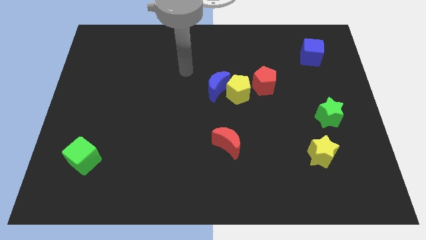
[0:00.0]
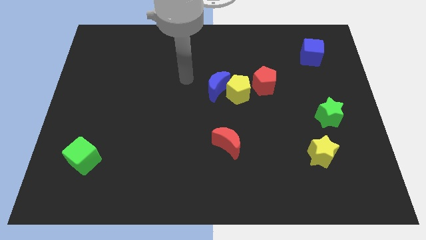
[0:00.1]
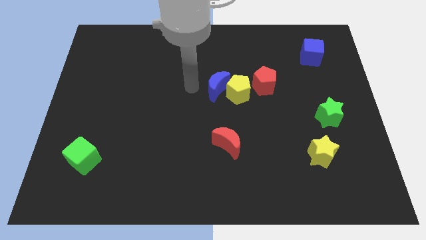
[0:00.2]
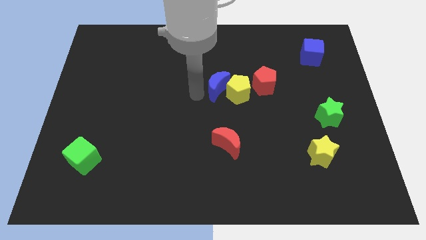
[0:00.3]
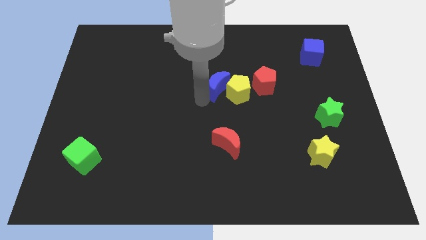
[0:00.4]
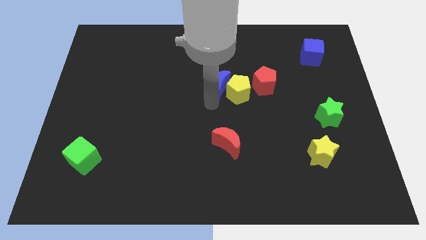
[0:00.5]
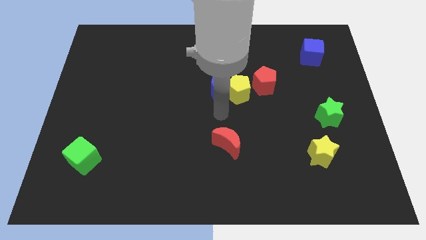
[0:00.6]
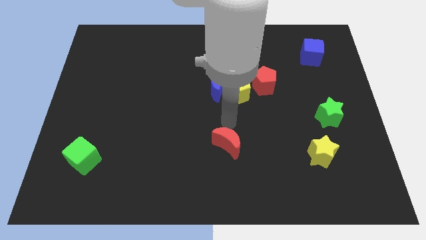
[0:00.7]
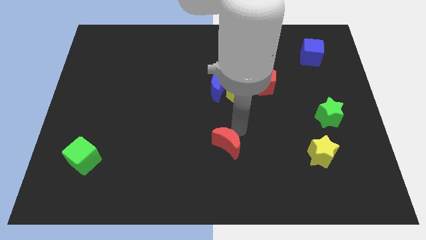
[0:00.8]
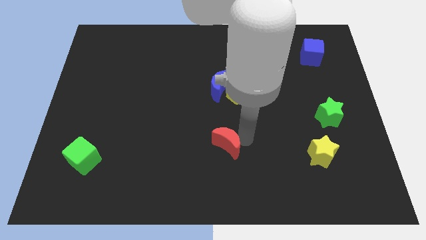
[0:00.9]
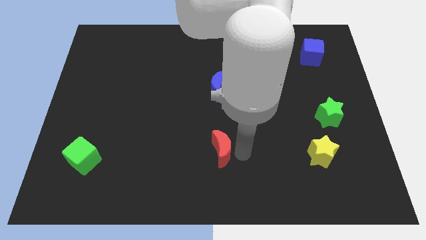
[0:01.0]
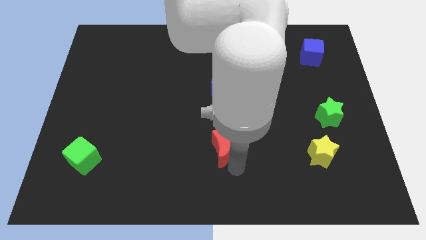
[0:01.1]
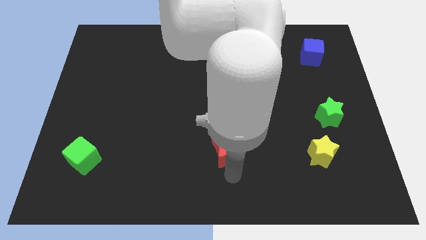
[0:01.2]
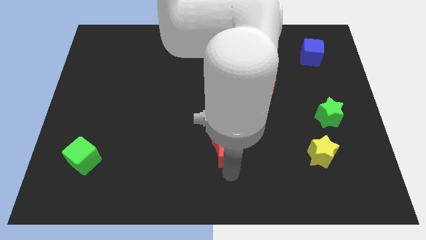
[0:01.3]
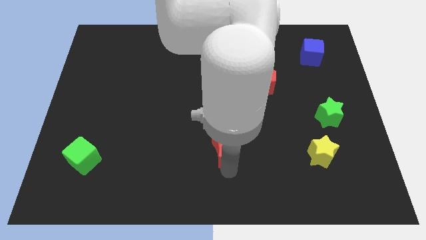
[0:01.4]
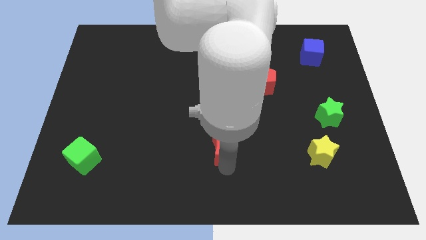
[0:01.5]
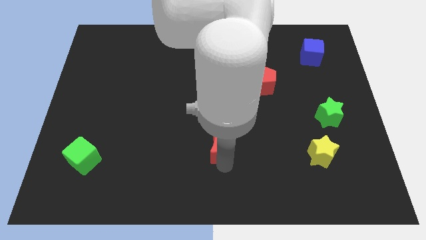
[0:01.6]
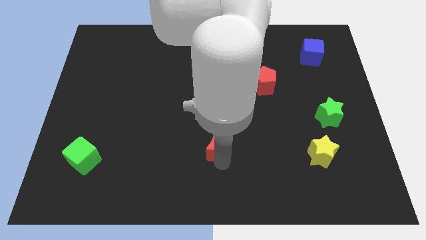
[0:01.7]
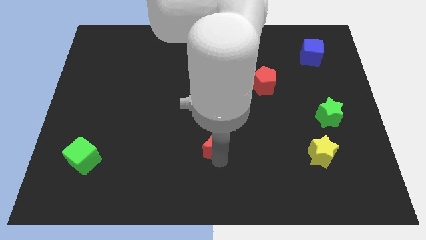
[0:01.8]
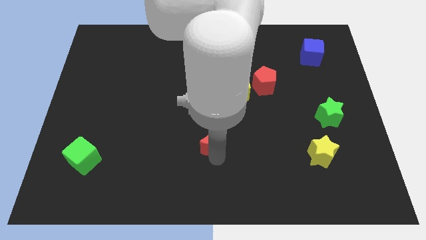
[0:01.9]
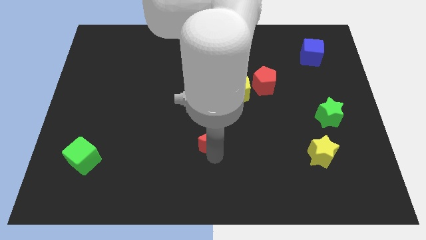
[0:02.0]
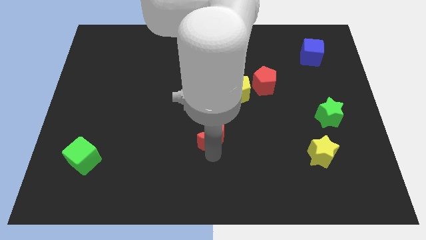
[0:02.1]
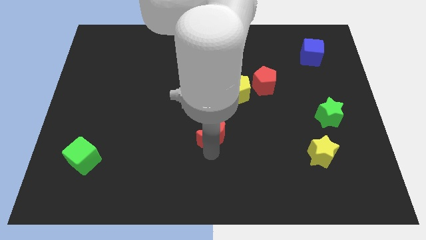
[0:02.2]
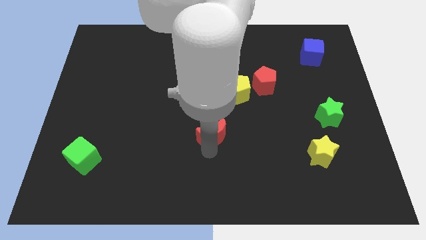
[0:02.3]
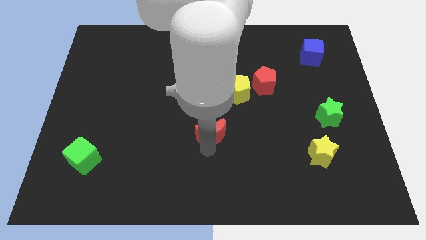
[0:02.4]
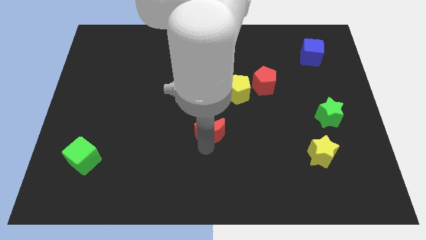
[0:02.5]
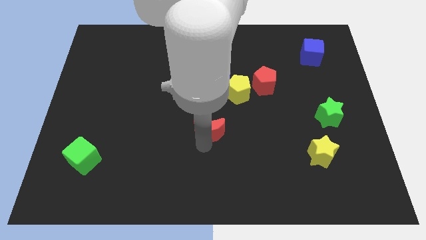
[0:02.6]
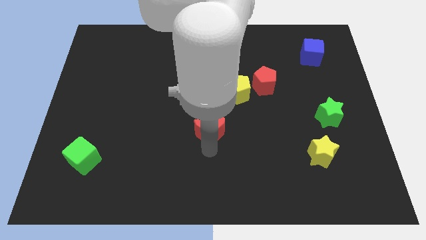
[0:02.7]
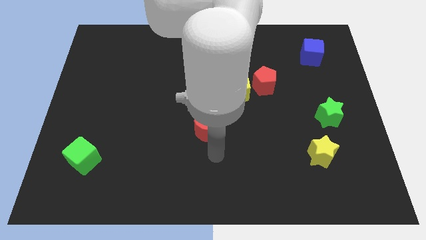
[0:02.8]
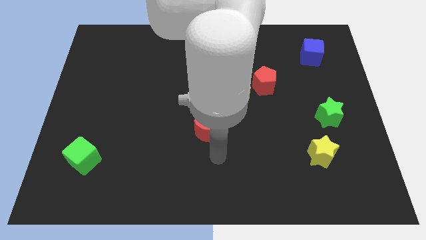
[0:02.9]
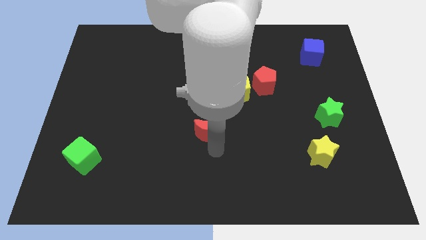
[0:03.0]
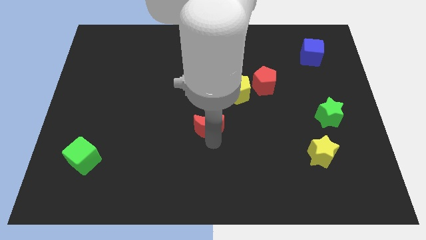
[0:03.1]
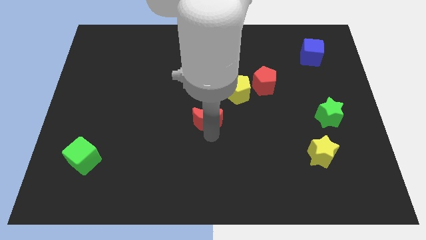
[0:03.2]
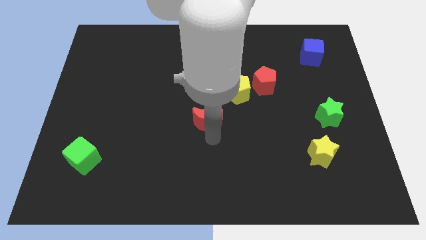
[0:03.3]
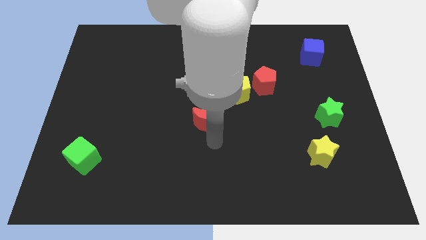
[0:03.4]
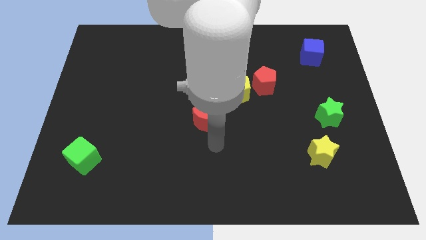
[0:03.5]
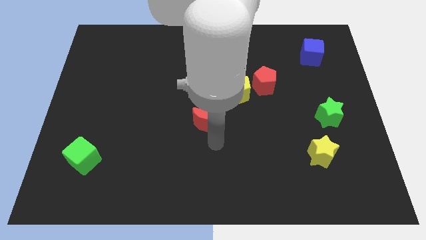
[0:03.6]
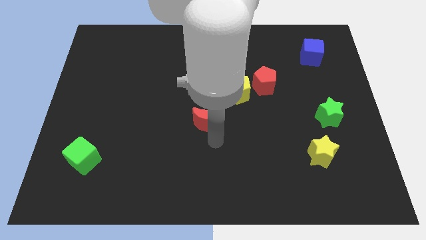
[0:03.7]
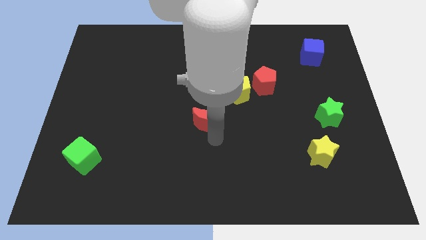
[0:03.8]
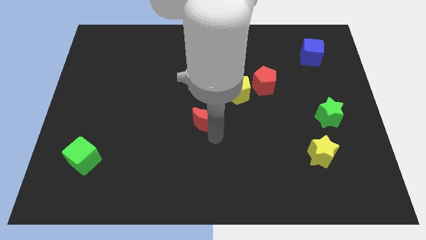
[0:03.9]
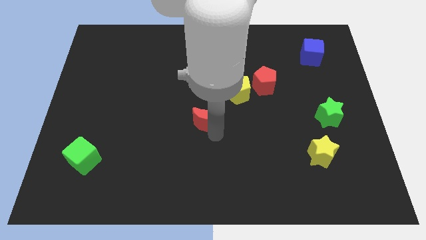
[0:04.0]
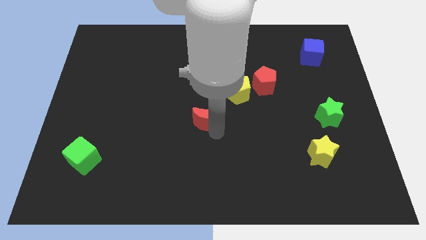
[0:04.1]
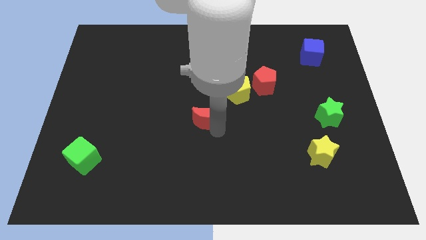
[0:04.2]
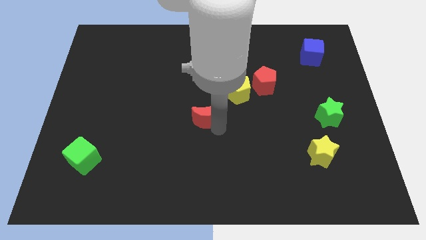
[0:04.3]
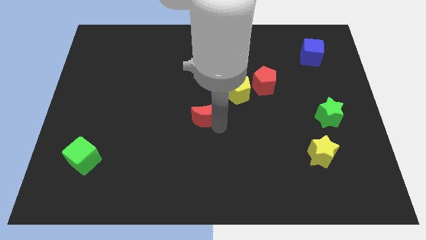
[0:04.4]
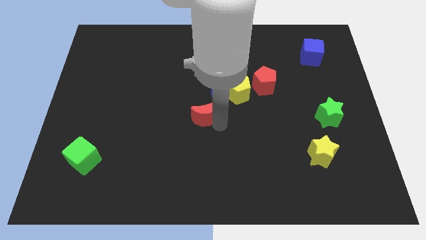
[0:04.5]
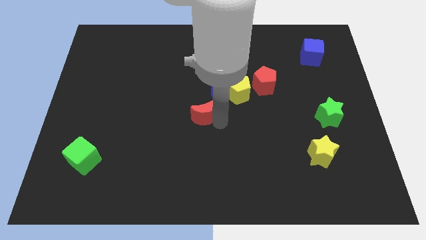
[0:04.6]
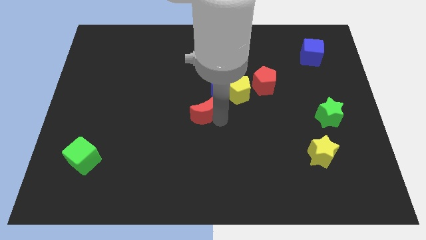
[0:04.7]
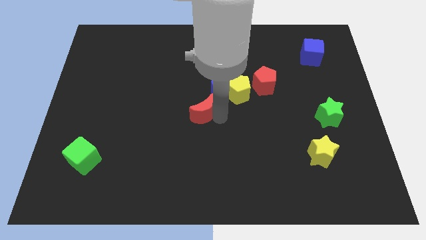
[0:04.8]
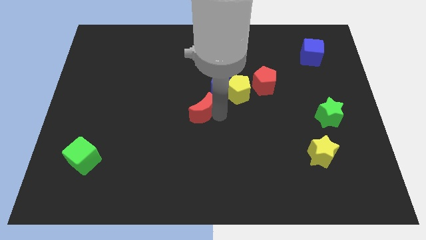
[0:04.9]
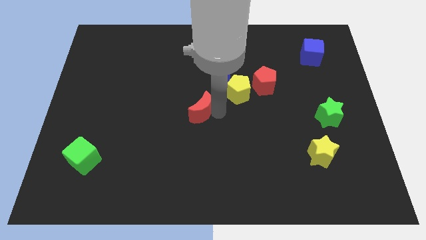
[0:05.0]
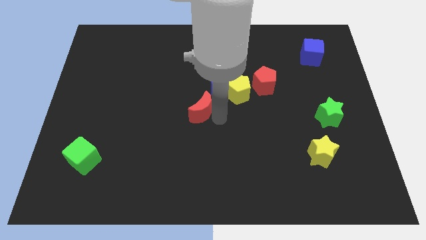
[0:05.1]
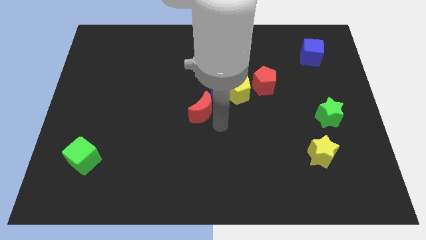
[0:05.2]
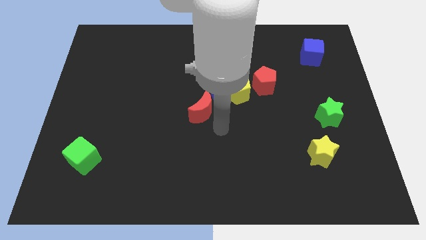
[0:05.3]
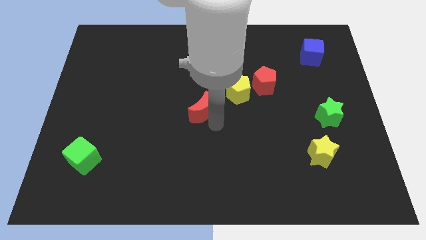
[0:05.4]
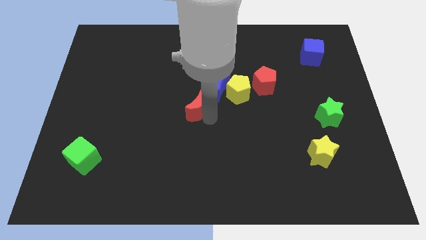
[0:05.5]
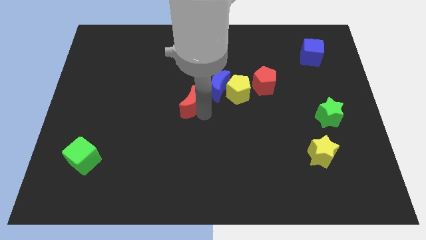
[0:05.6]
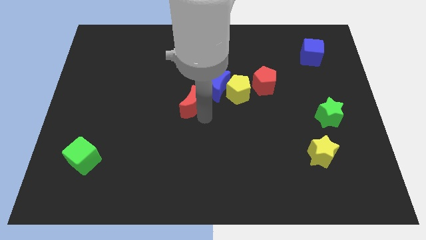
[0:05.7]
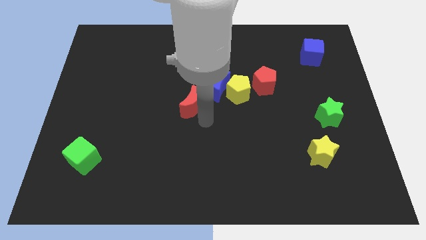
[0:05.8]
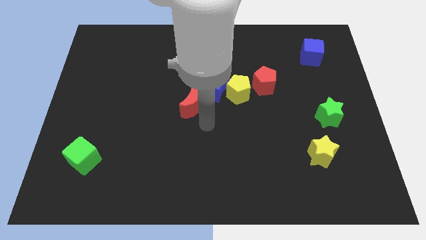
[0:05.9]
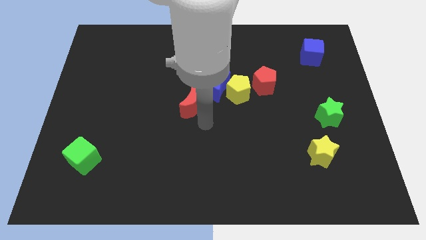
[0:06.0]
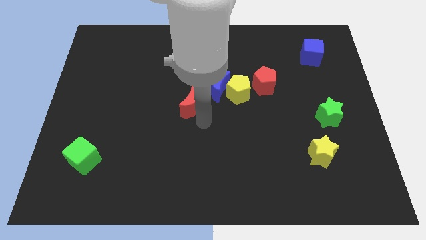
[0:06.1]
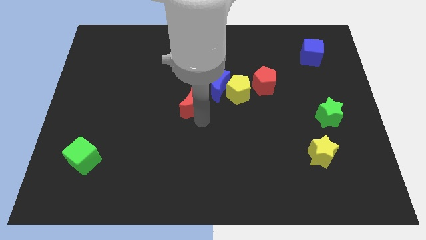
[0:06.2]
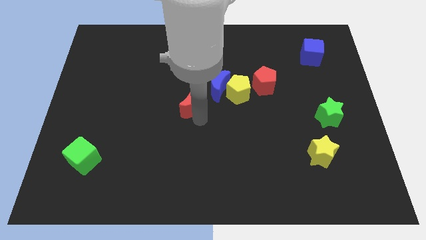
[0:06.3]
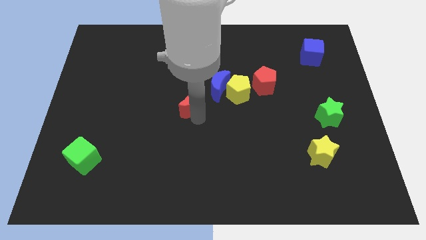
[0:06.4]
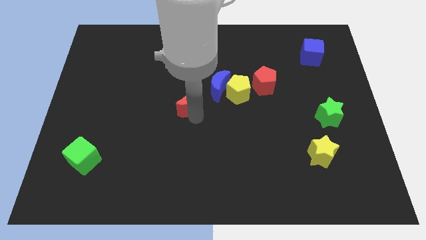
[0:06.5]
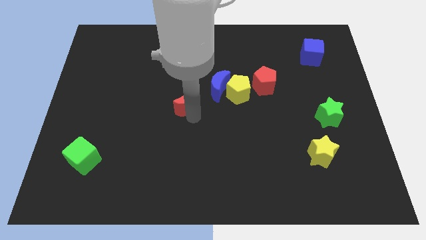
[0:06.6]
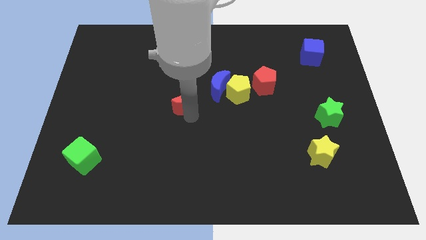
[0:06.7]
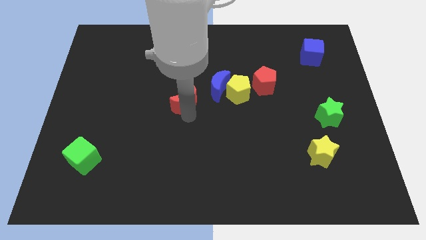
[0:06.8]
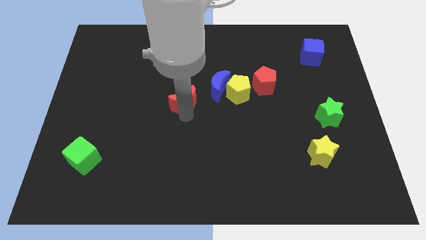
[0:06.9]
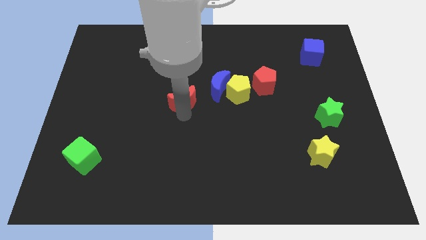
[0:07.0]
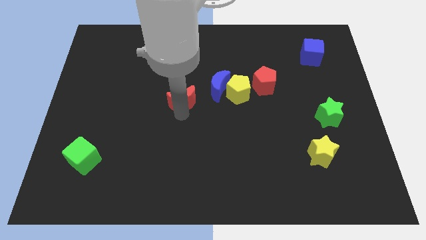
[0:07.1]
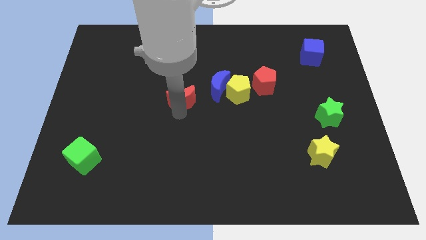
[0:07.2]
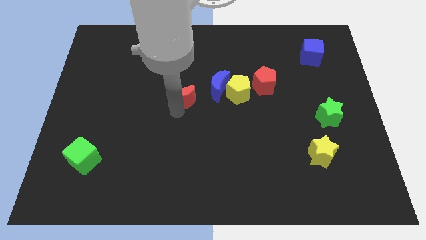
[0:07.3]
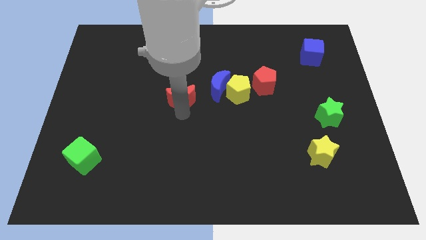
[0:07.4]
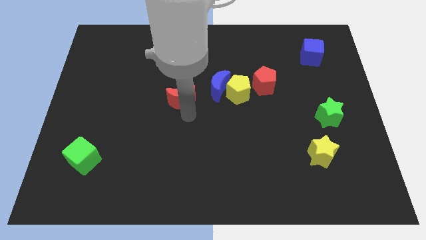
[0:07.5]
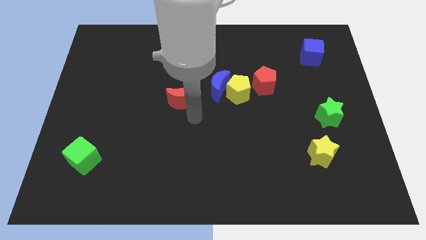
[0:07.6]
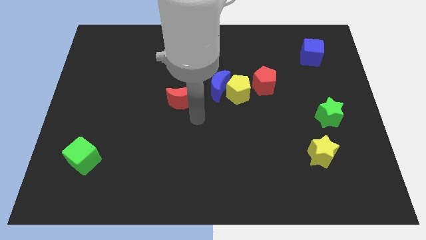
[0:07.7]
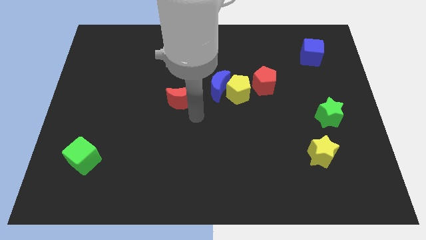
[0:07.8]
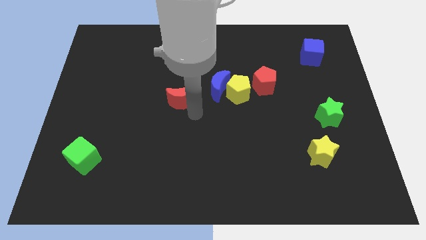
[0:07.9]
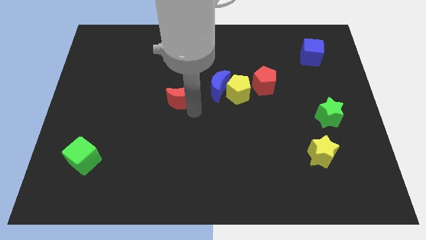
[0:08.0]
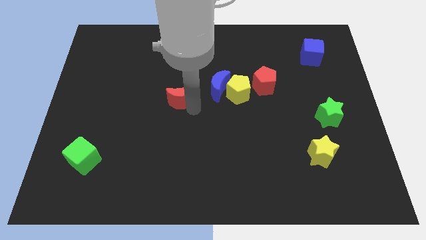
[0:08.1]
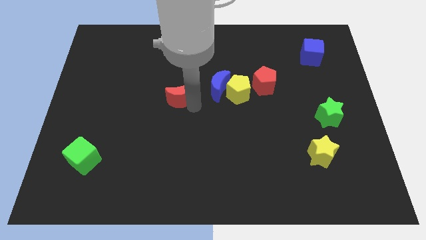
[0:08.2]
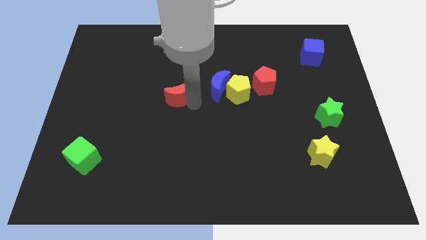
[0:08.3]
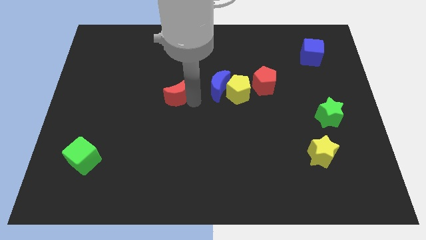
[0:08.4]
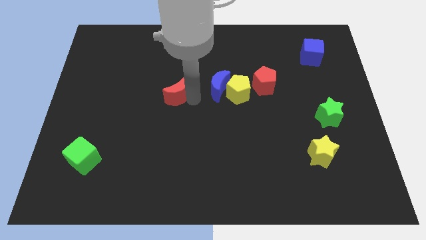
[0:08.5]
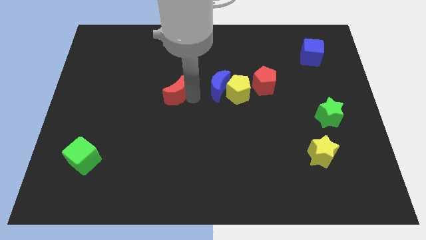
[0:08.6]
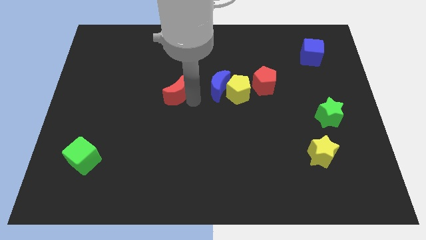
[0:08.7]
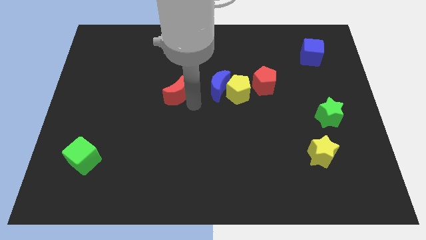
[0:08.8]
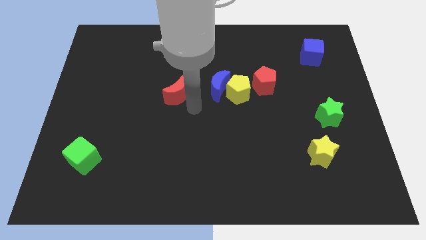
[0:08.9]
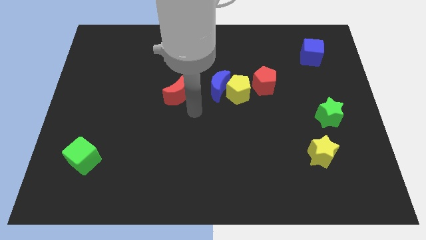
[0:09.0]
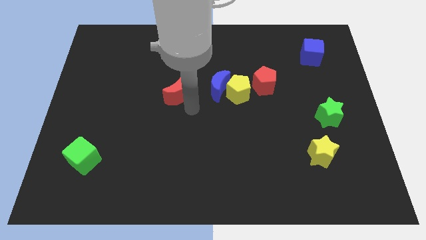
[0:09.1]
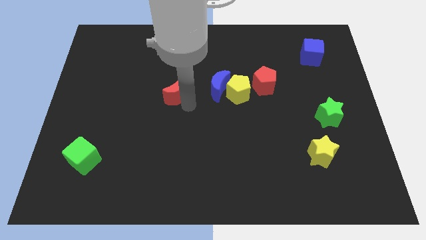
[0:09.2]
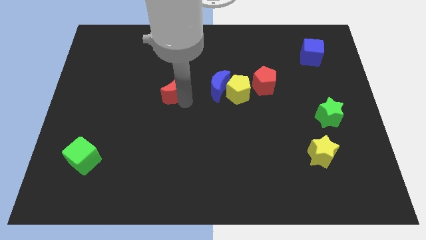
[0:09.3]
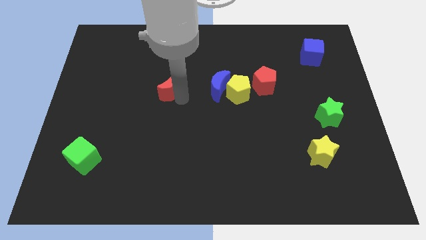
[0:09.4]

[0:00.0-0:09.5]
slide the red moon up and to the left diagonally
